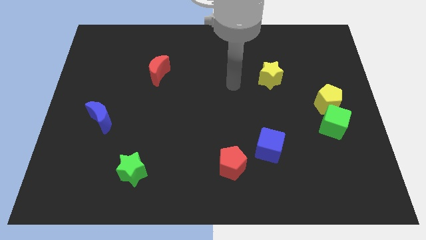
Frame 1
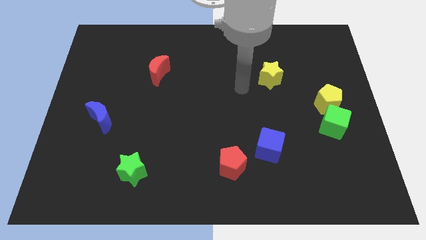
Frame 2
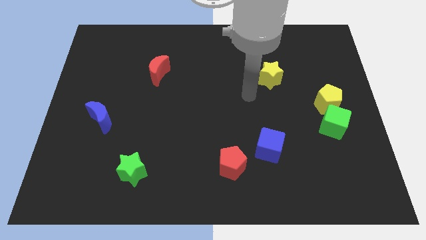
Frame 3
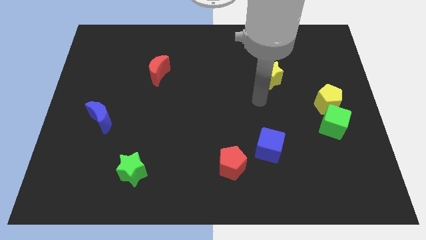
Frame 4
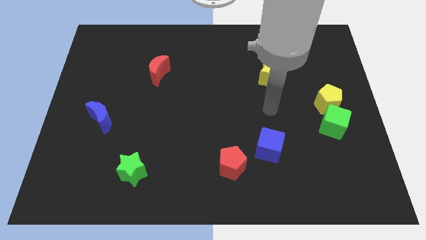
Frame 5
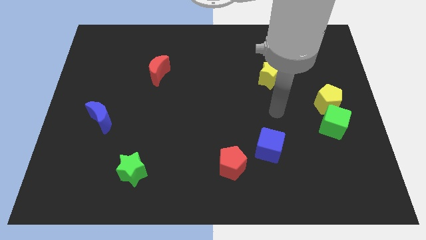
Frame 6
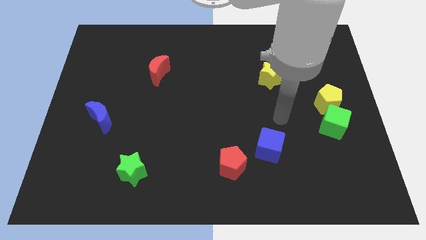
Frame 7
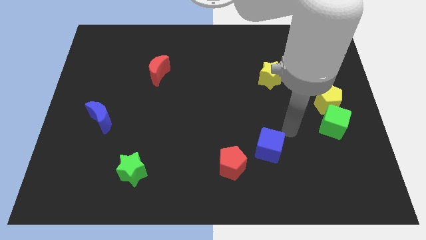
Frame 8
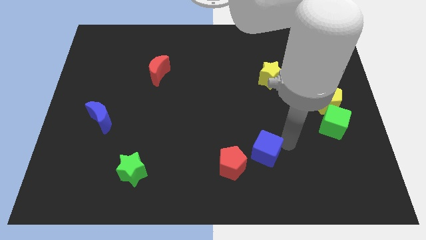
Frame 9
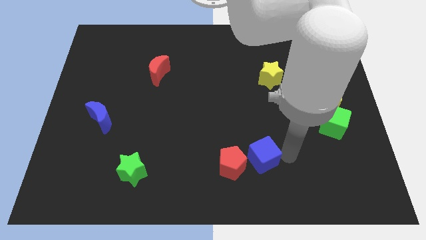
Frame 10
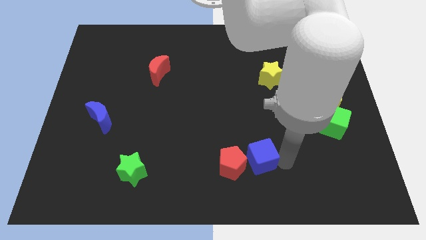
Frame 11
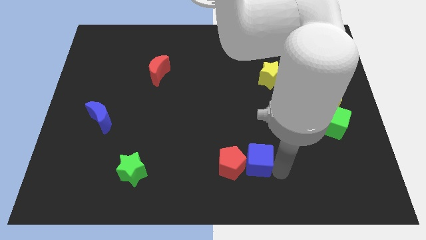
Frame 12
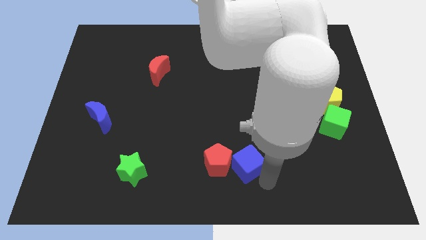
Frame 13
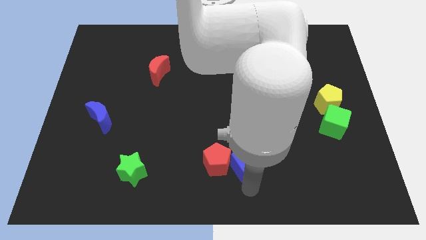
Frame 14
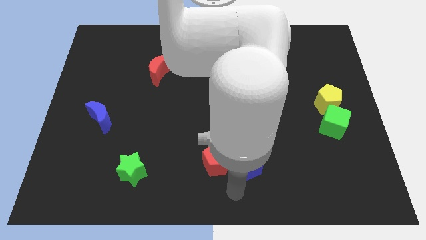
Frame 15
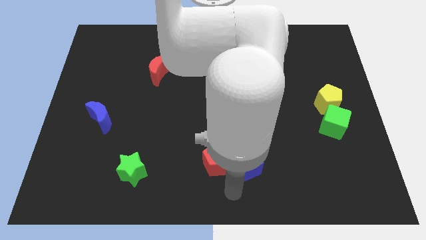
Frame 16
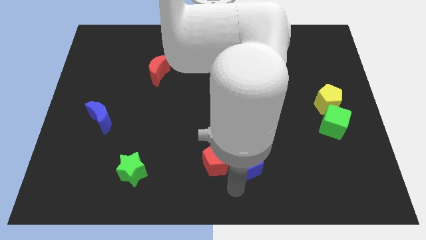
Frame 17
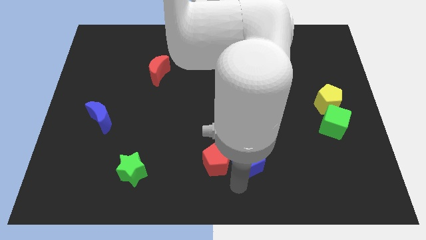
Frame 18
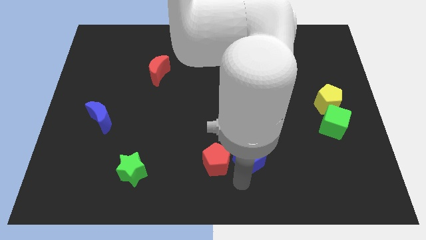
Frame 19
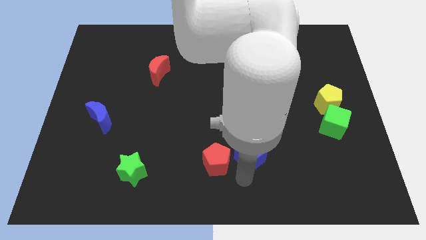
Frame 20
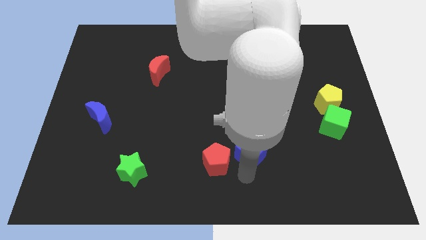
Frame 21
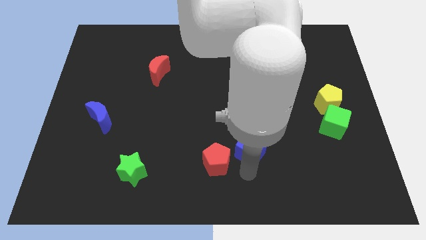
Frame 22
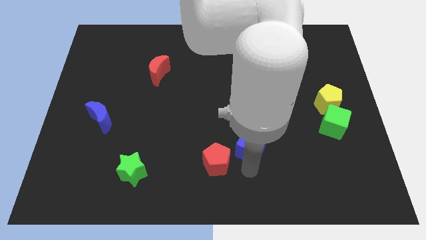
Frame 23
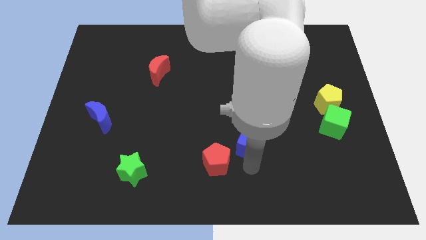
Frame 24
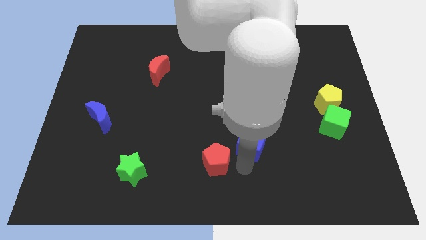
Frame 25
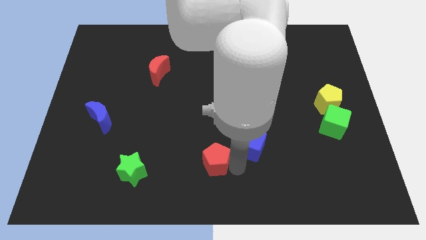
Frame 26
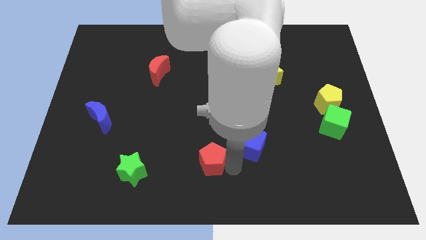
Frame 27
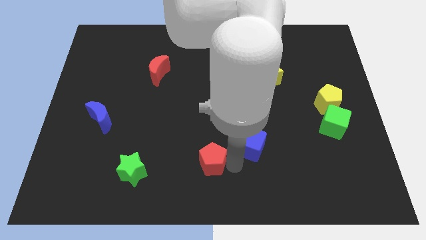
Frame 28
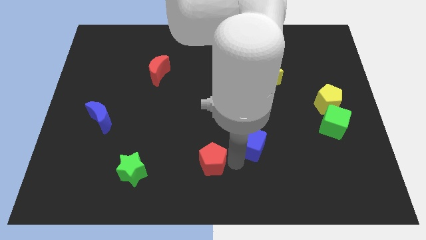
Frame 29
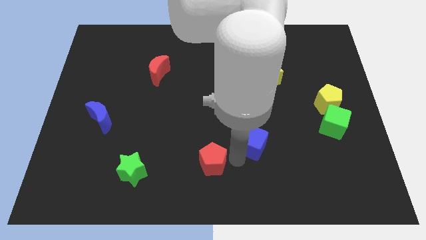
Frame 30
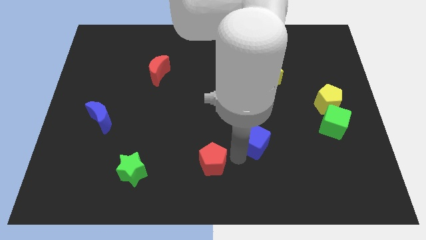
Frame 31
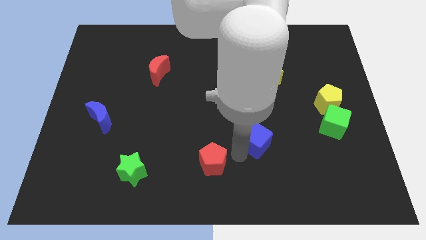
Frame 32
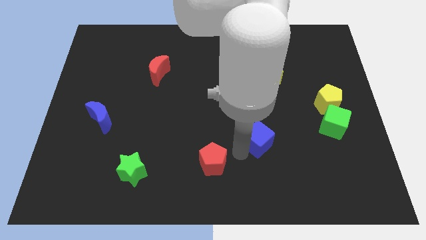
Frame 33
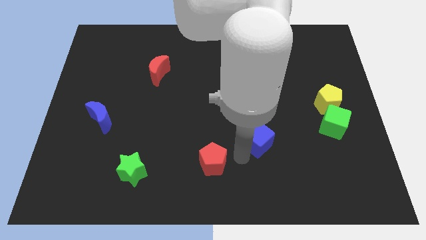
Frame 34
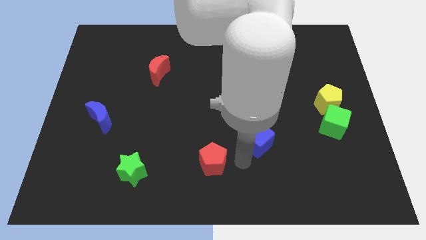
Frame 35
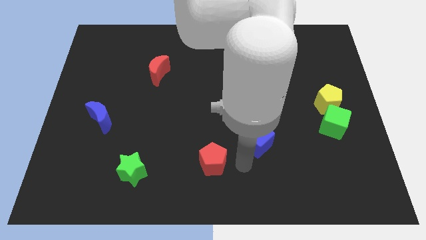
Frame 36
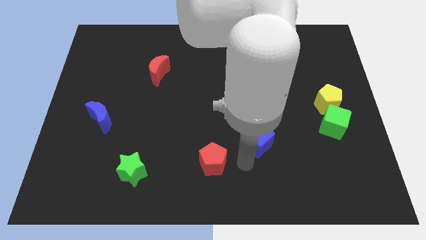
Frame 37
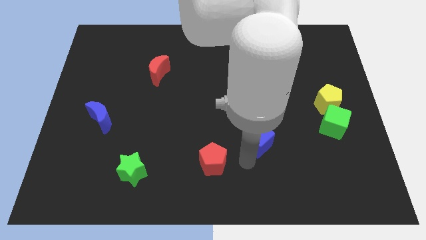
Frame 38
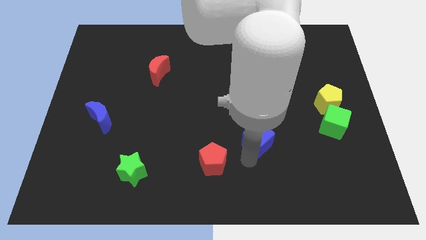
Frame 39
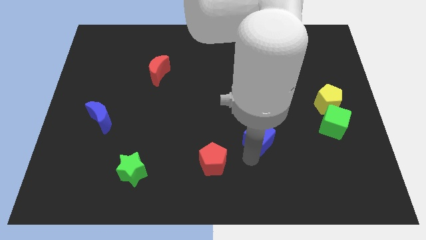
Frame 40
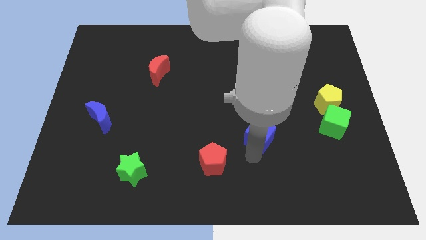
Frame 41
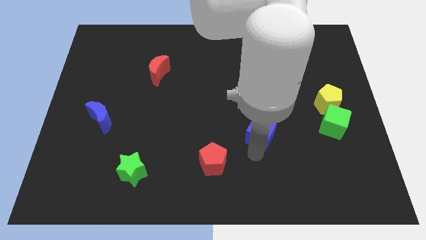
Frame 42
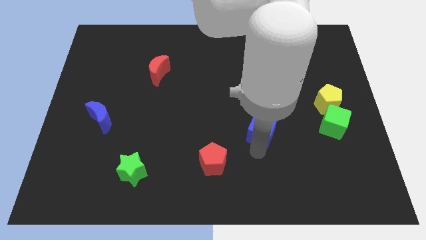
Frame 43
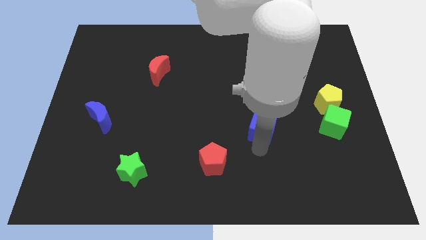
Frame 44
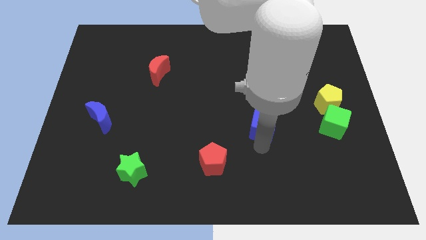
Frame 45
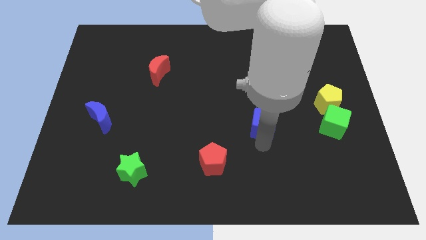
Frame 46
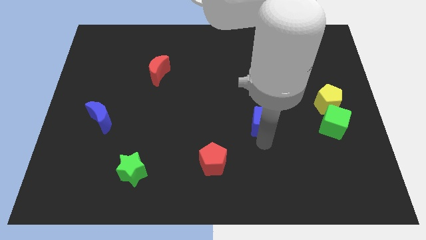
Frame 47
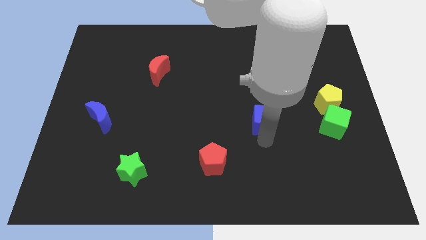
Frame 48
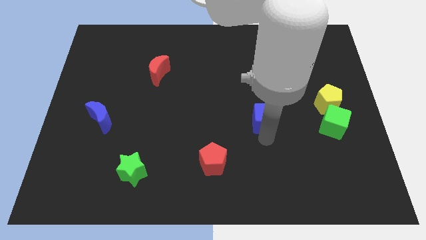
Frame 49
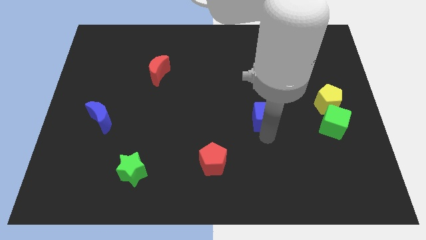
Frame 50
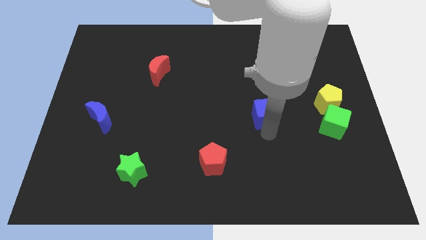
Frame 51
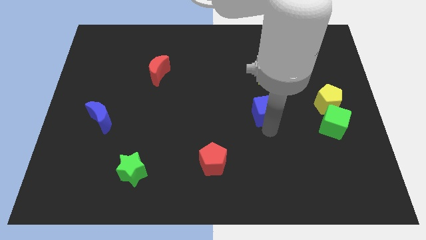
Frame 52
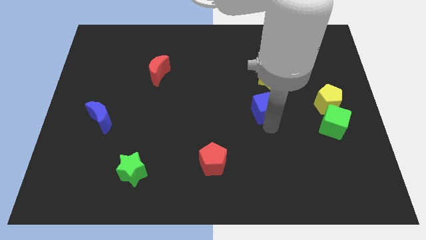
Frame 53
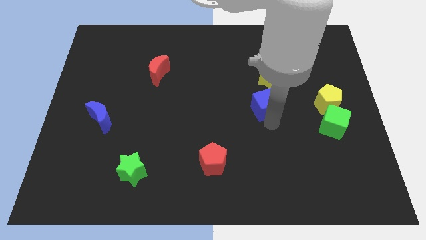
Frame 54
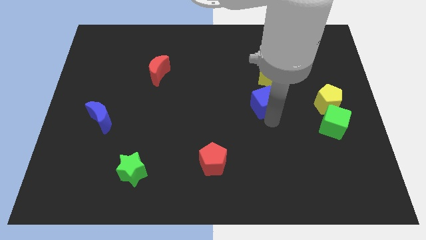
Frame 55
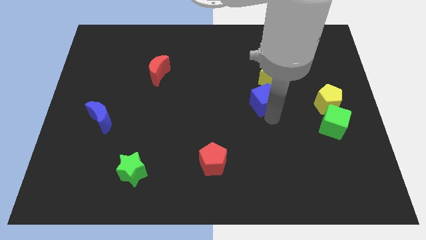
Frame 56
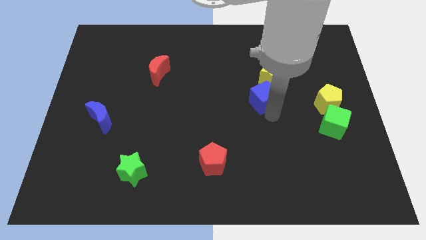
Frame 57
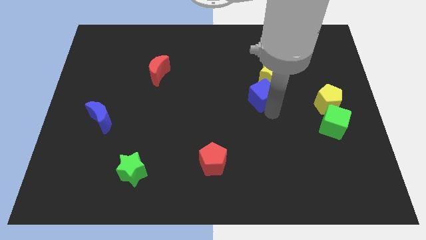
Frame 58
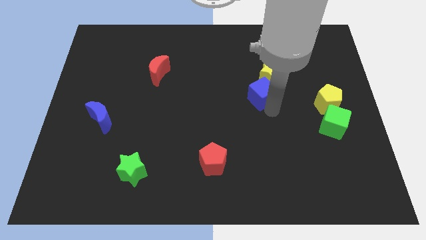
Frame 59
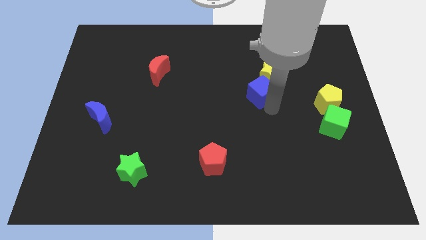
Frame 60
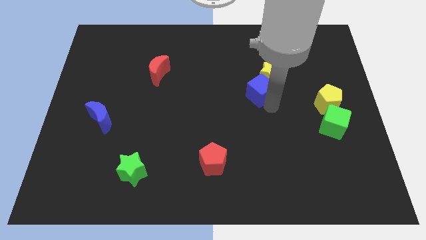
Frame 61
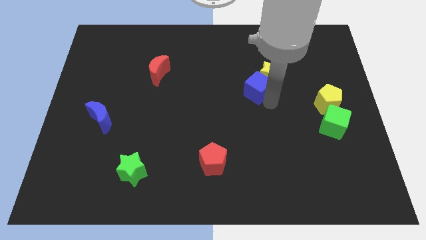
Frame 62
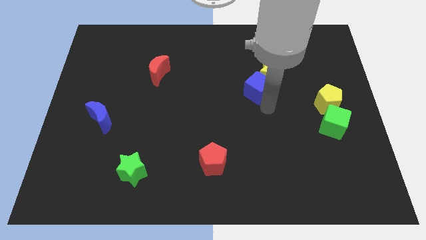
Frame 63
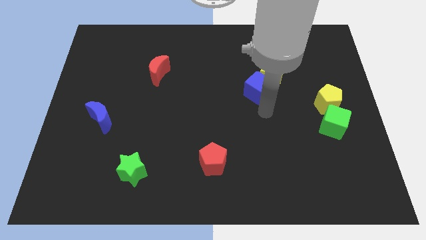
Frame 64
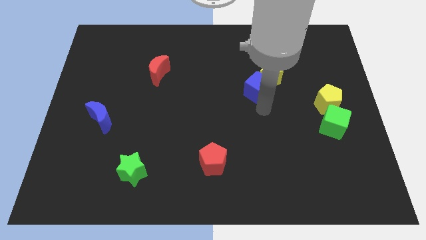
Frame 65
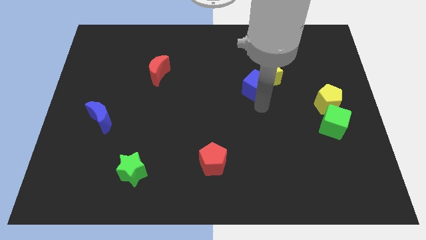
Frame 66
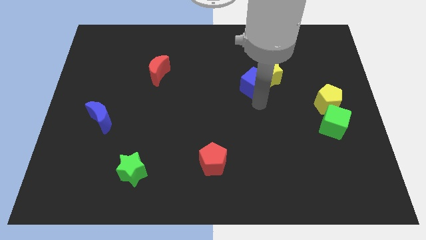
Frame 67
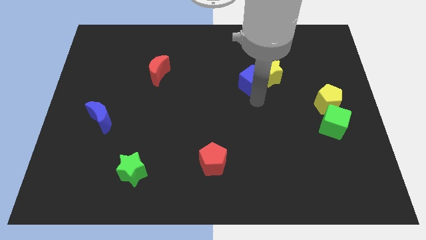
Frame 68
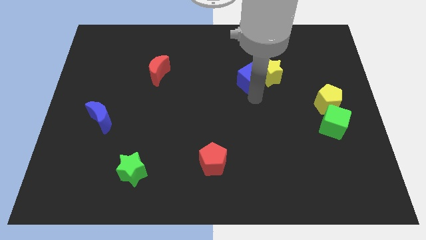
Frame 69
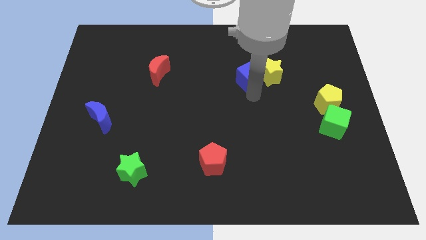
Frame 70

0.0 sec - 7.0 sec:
put the blue cube diagonally up and to the left of the yellow star

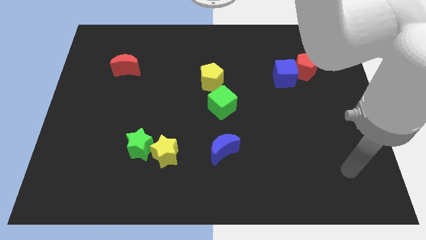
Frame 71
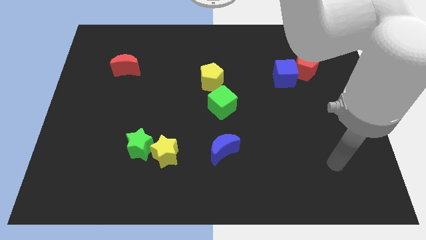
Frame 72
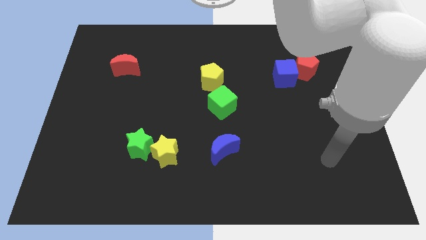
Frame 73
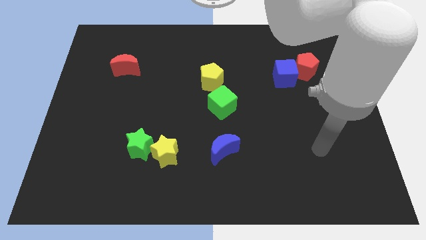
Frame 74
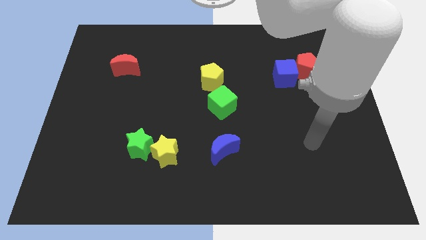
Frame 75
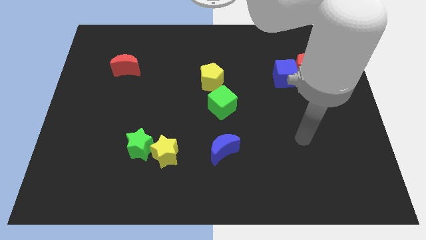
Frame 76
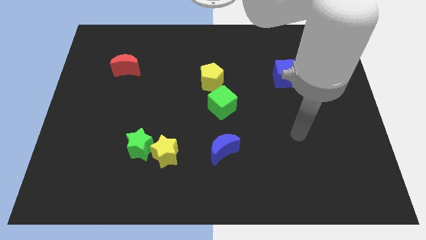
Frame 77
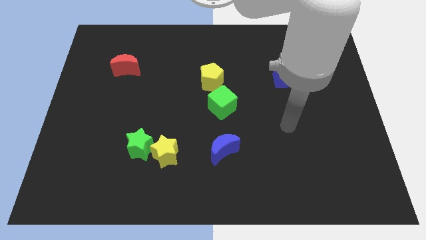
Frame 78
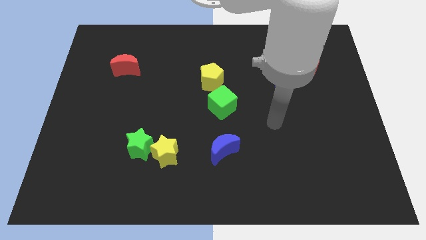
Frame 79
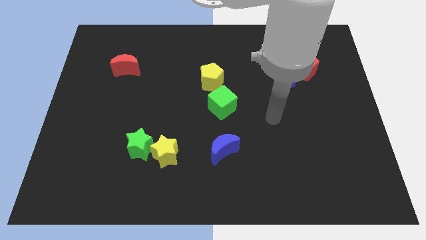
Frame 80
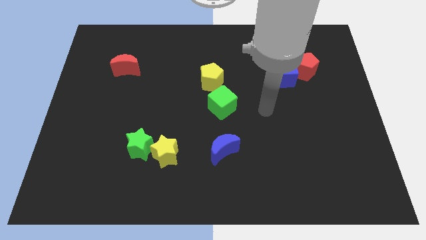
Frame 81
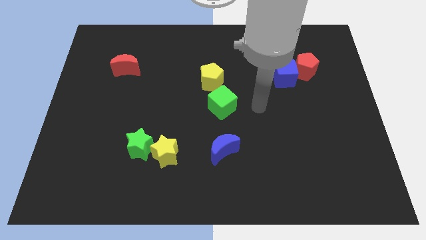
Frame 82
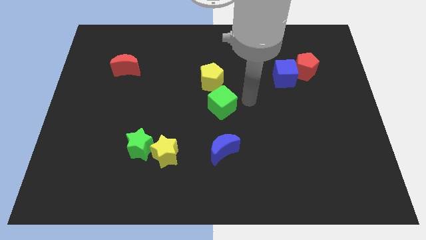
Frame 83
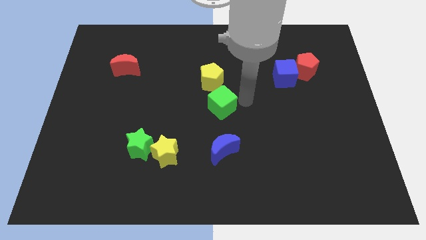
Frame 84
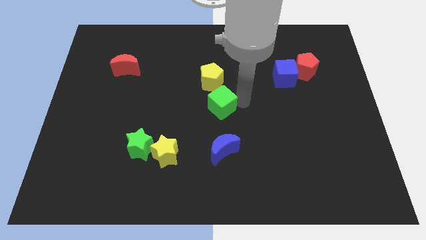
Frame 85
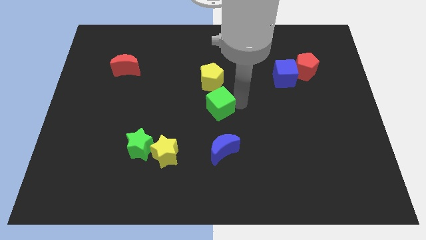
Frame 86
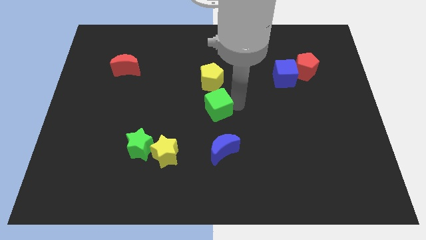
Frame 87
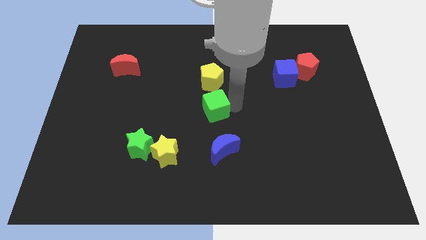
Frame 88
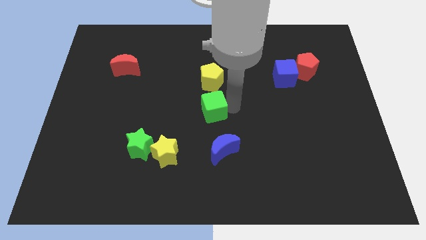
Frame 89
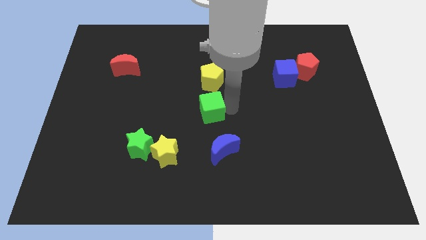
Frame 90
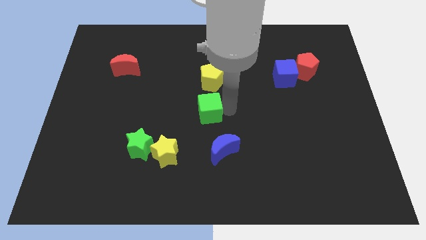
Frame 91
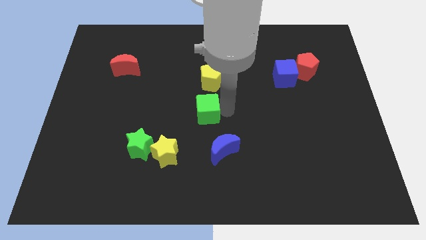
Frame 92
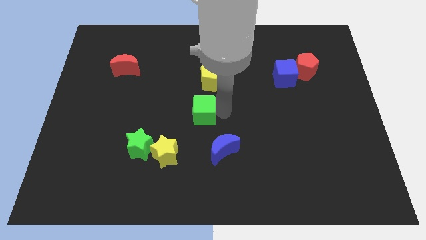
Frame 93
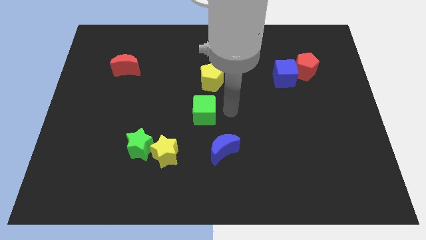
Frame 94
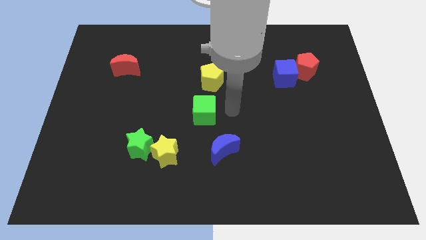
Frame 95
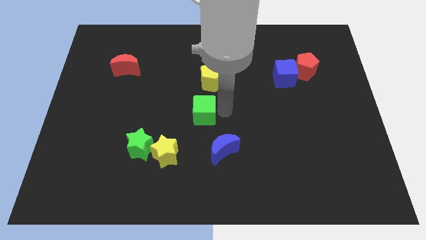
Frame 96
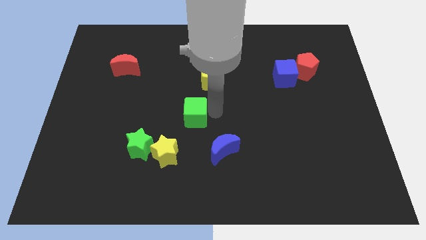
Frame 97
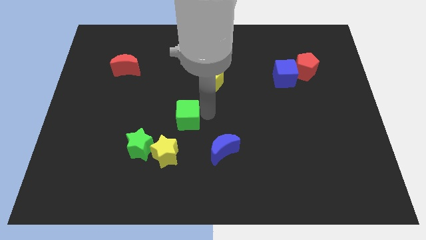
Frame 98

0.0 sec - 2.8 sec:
slide the green cube to the top of the yellow star
